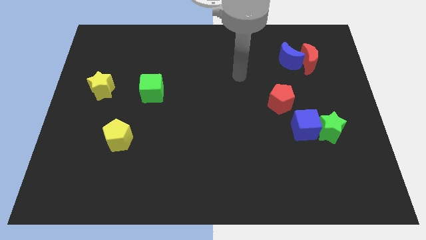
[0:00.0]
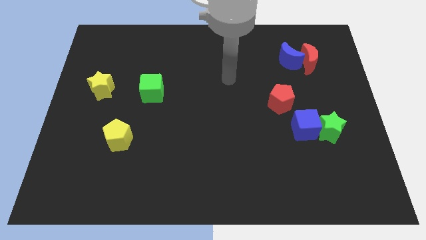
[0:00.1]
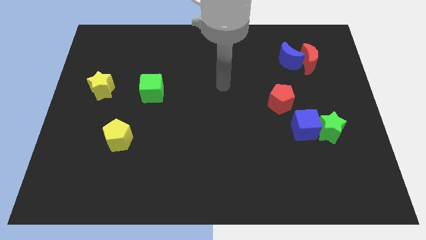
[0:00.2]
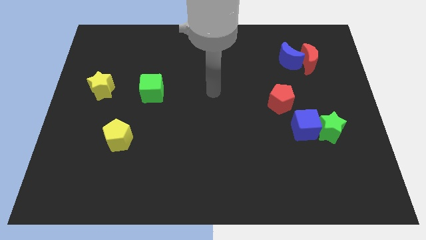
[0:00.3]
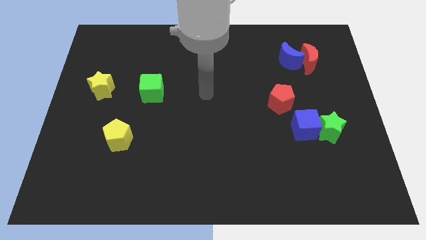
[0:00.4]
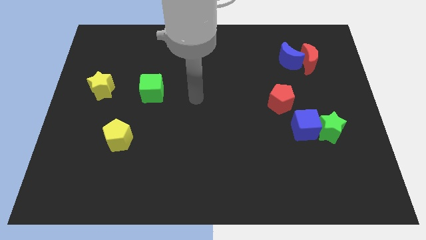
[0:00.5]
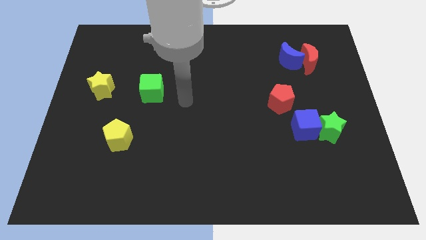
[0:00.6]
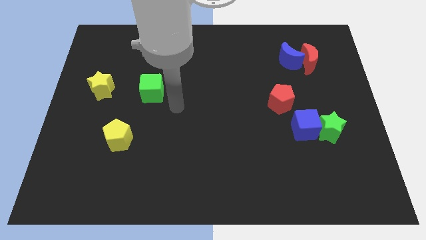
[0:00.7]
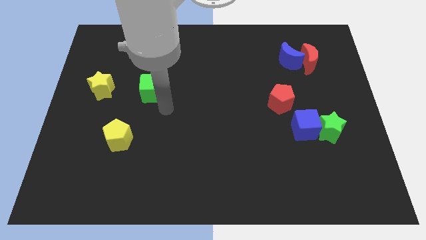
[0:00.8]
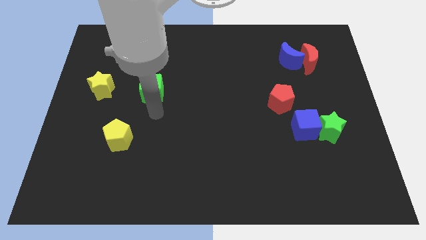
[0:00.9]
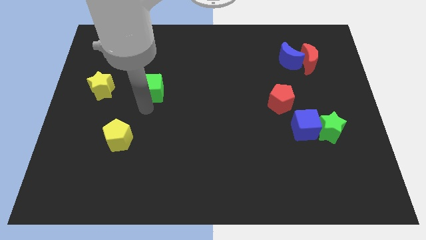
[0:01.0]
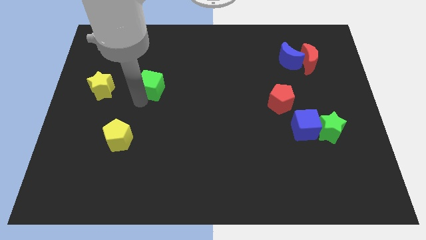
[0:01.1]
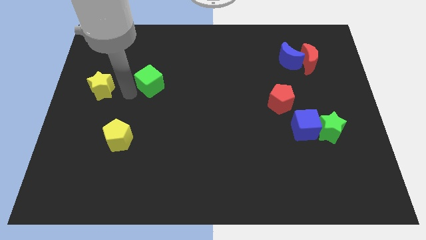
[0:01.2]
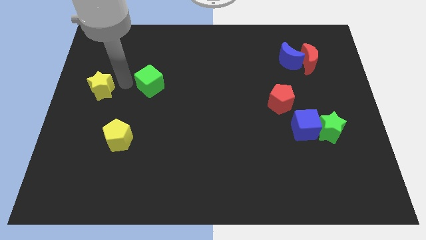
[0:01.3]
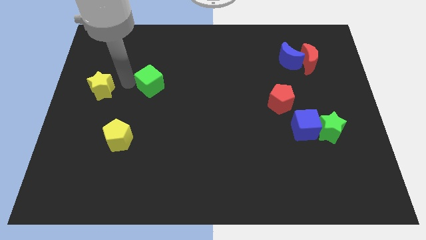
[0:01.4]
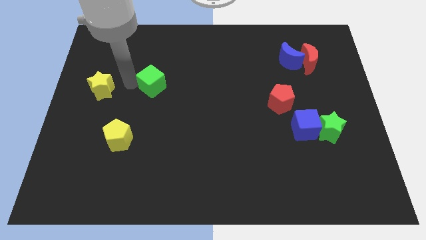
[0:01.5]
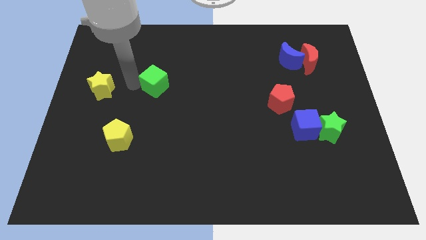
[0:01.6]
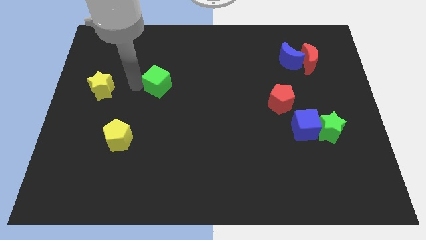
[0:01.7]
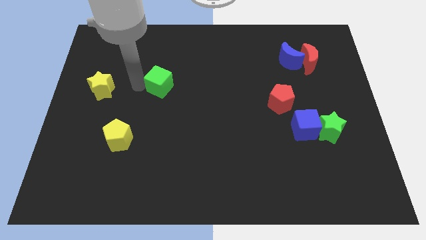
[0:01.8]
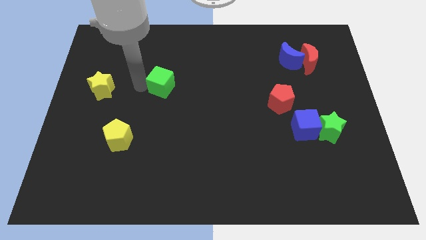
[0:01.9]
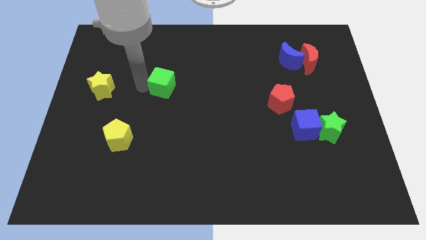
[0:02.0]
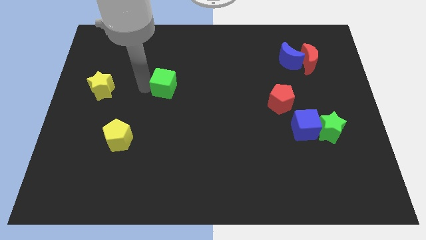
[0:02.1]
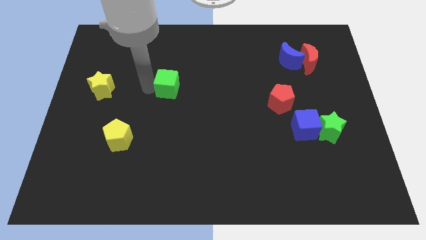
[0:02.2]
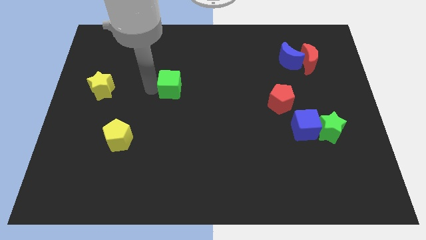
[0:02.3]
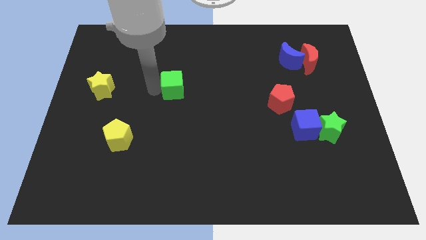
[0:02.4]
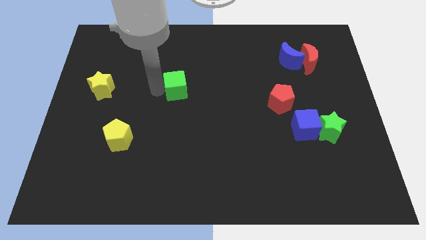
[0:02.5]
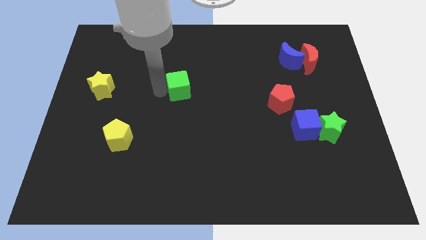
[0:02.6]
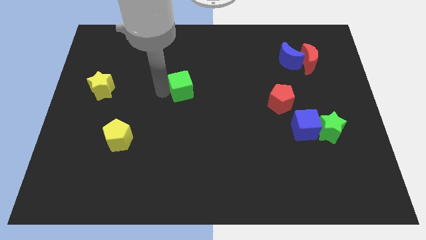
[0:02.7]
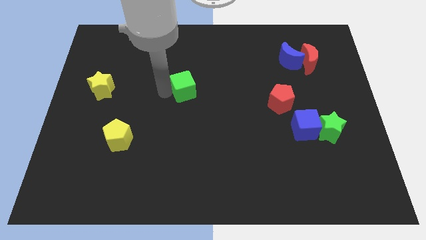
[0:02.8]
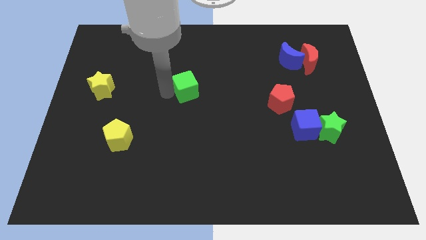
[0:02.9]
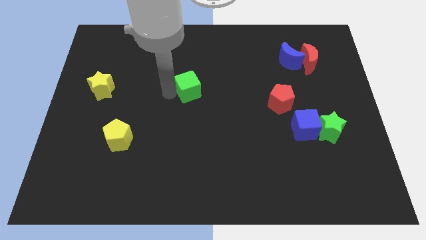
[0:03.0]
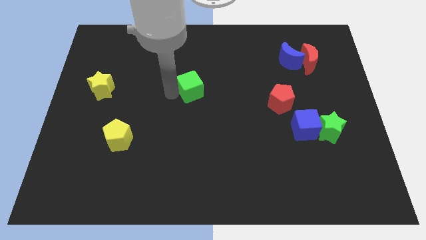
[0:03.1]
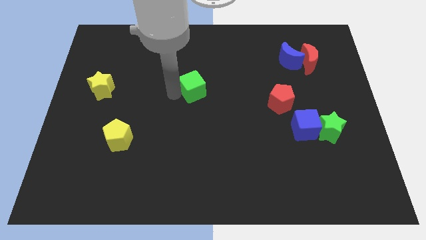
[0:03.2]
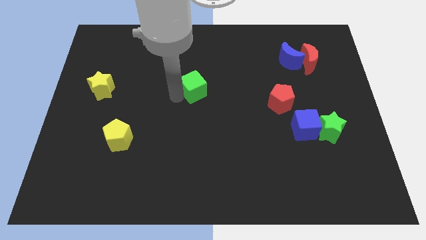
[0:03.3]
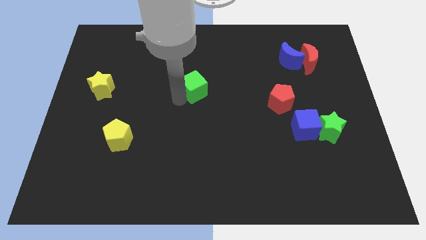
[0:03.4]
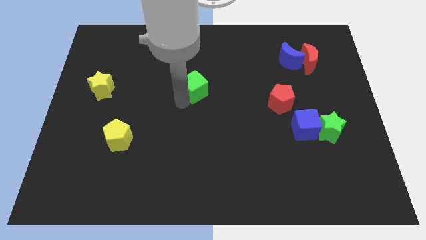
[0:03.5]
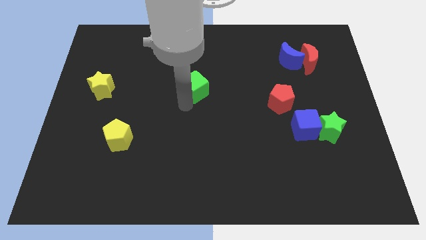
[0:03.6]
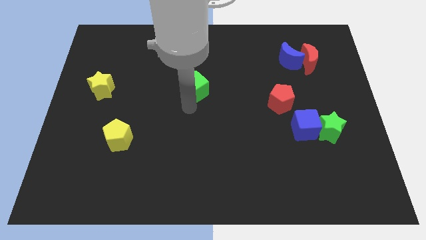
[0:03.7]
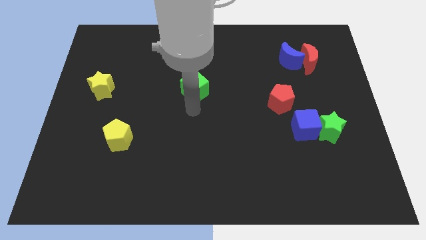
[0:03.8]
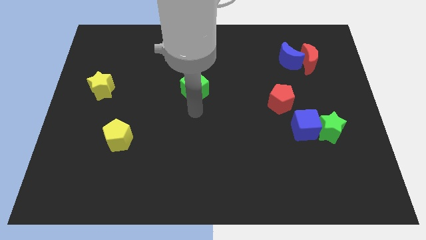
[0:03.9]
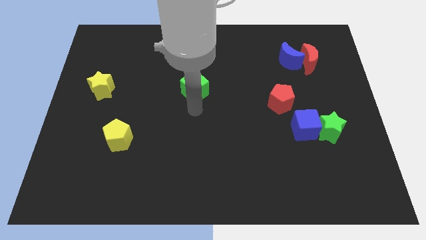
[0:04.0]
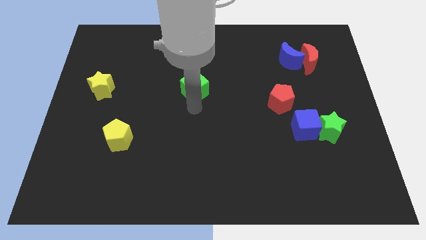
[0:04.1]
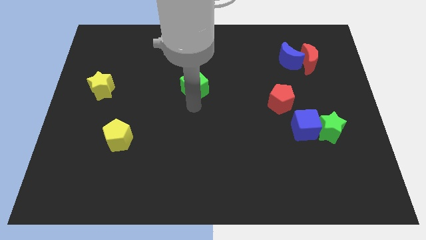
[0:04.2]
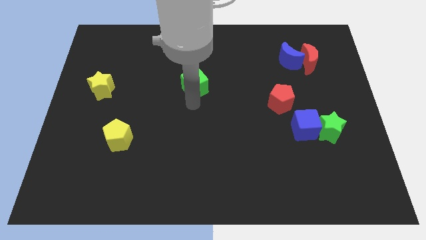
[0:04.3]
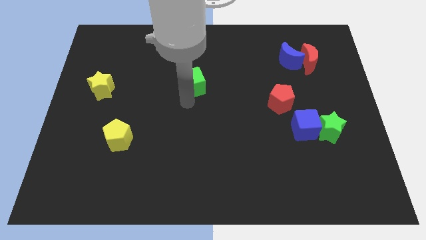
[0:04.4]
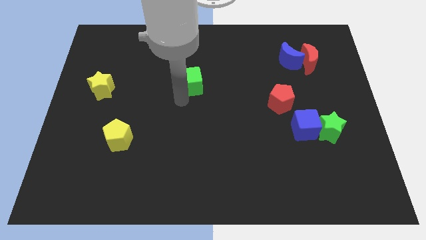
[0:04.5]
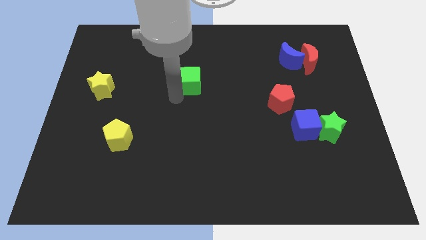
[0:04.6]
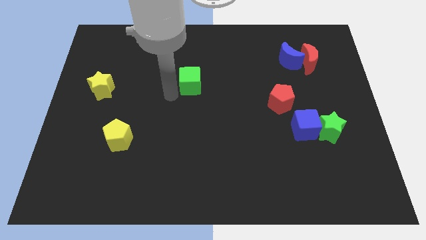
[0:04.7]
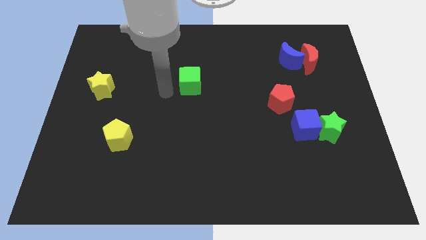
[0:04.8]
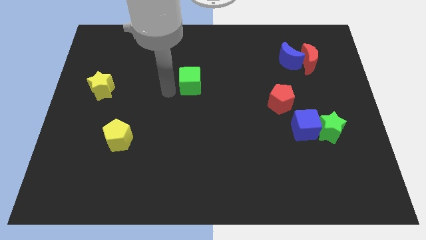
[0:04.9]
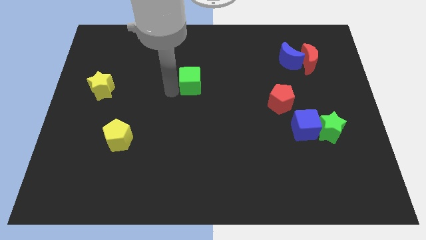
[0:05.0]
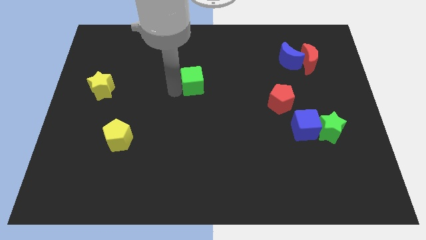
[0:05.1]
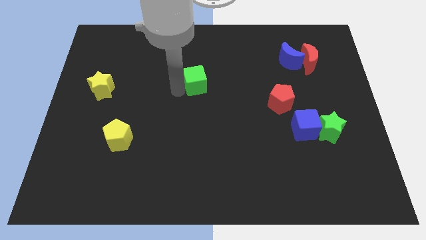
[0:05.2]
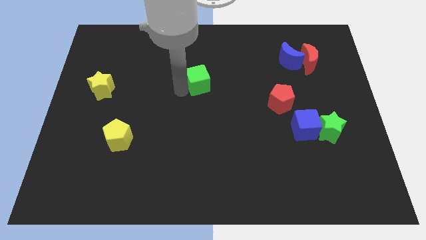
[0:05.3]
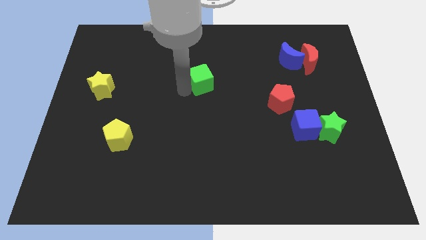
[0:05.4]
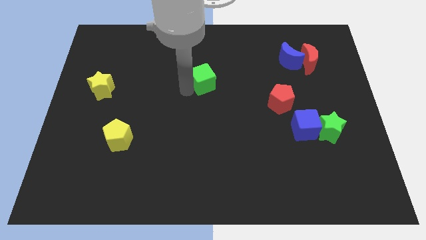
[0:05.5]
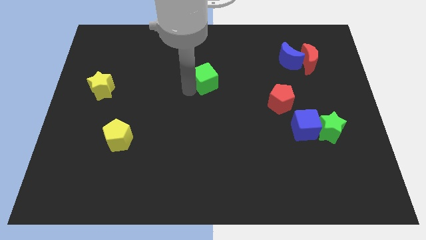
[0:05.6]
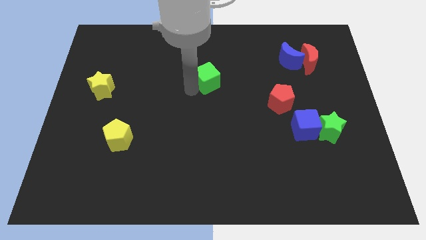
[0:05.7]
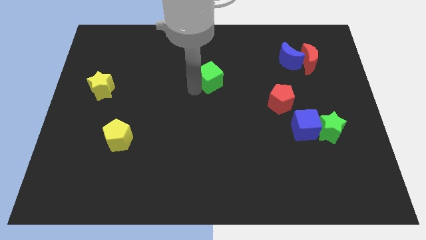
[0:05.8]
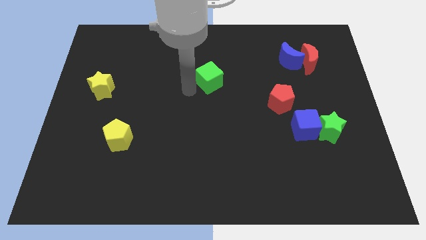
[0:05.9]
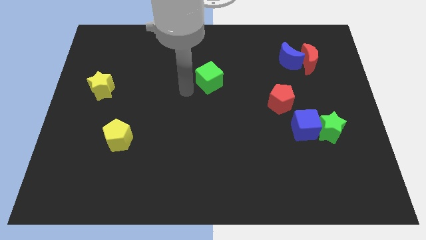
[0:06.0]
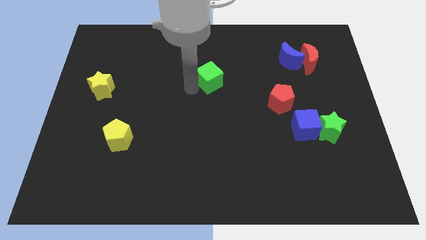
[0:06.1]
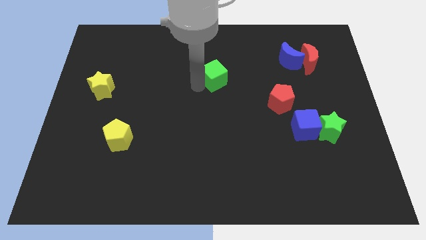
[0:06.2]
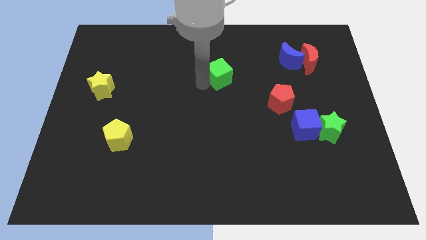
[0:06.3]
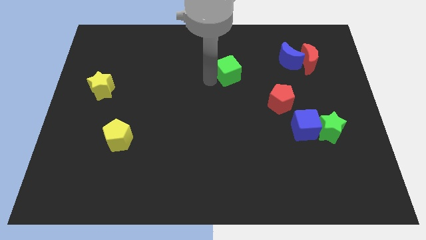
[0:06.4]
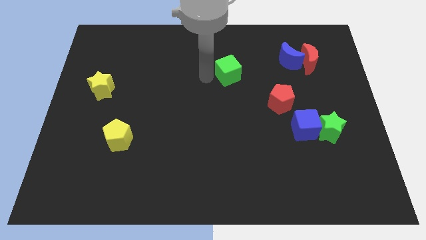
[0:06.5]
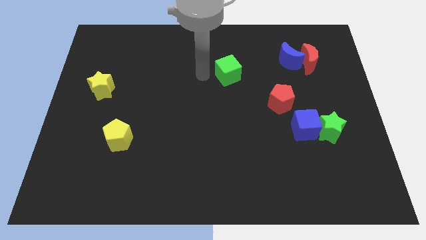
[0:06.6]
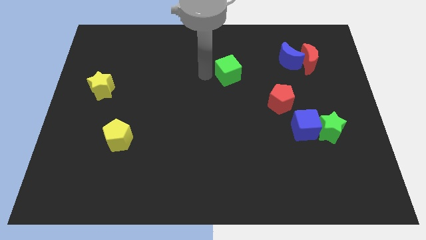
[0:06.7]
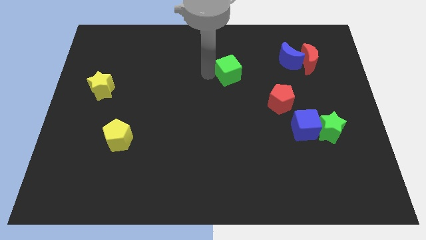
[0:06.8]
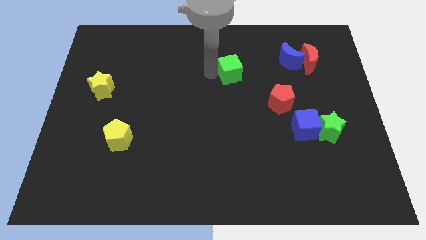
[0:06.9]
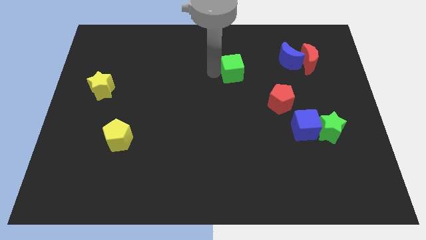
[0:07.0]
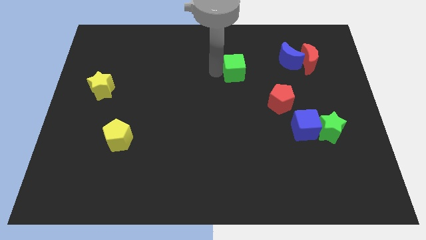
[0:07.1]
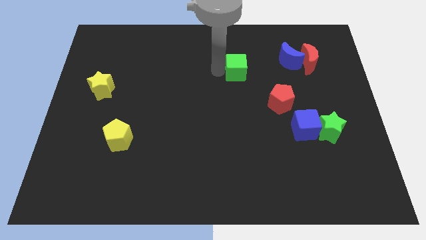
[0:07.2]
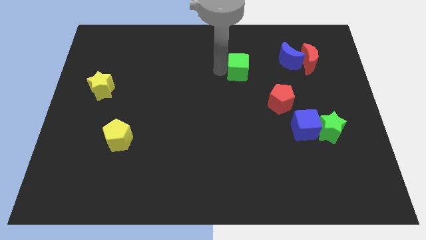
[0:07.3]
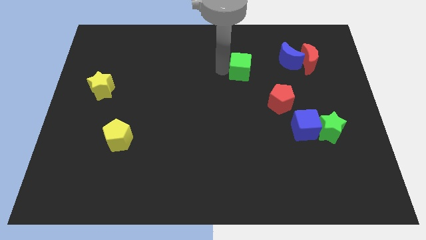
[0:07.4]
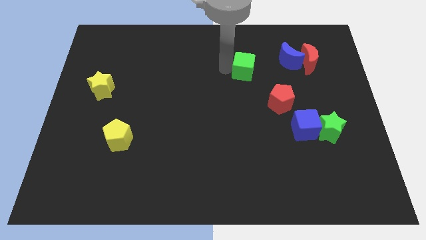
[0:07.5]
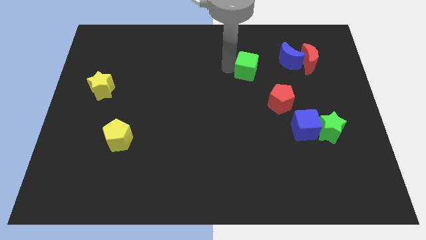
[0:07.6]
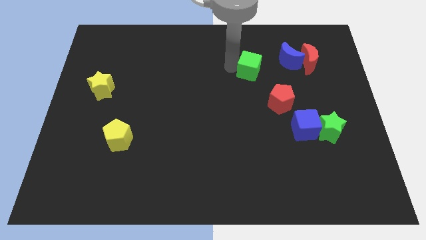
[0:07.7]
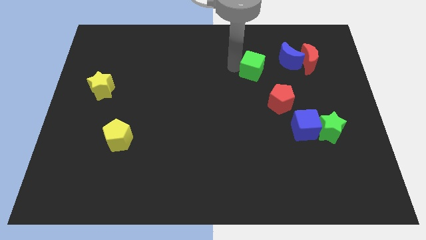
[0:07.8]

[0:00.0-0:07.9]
put the green cube diagonally down and to the left of the blue moon
